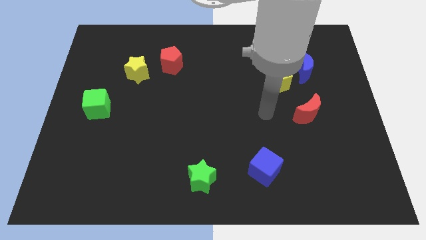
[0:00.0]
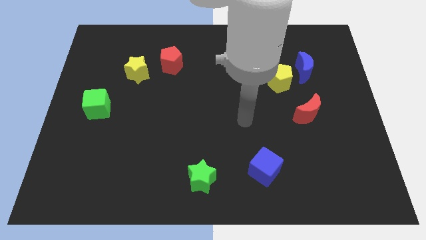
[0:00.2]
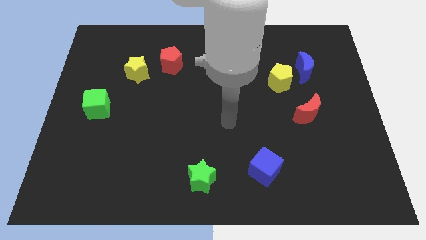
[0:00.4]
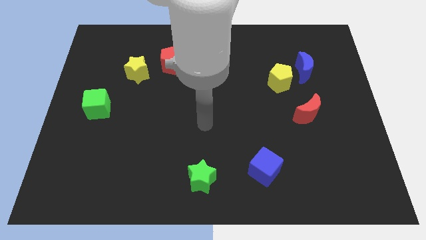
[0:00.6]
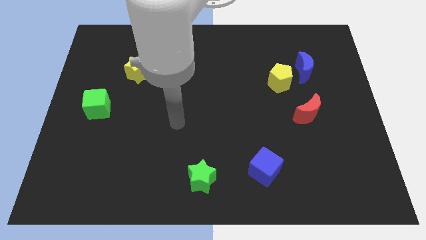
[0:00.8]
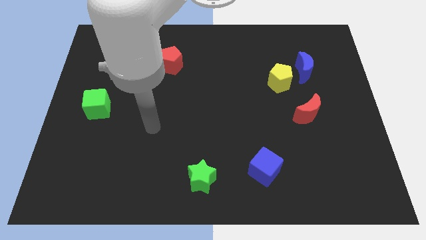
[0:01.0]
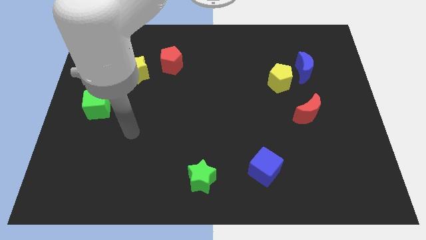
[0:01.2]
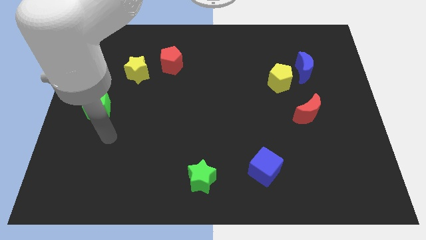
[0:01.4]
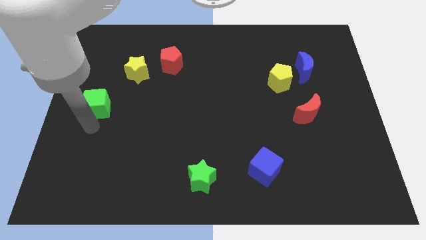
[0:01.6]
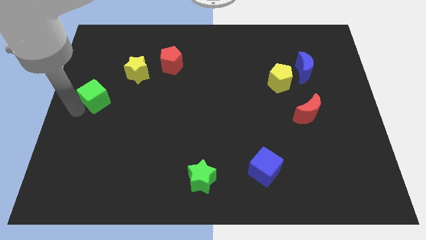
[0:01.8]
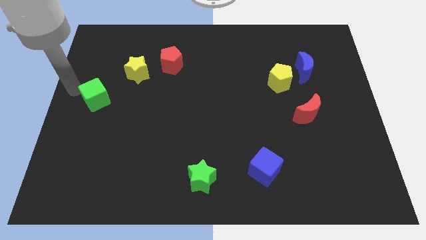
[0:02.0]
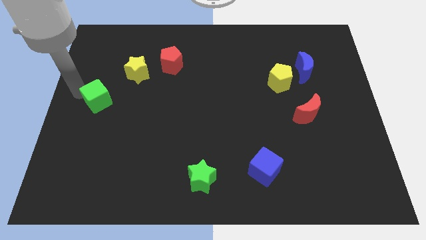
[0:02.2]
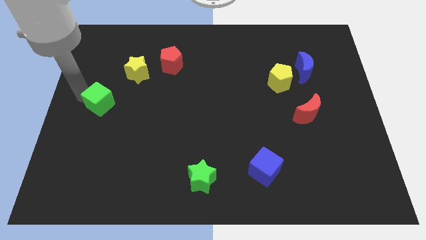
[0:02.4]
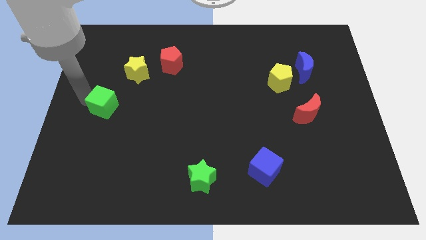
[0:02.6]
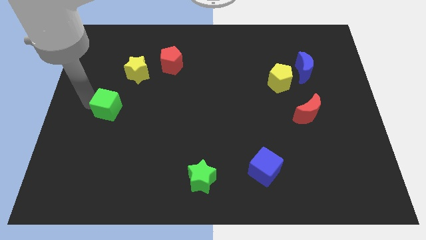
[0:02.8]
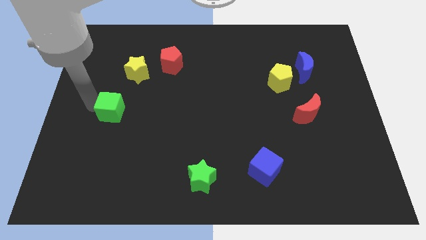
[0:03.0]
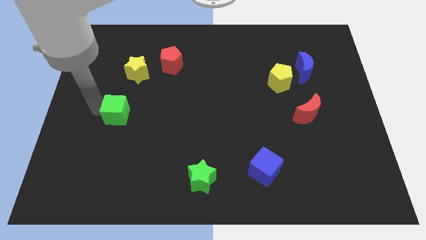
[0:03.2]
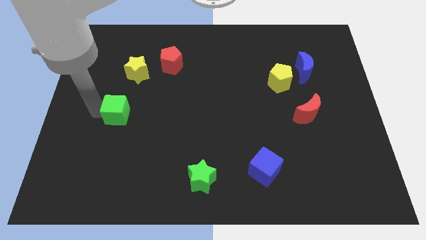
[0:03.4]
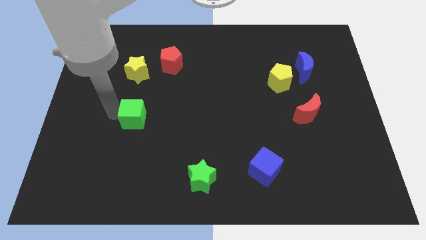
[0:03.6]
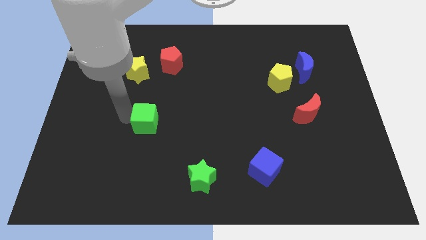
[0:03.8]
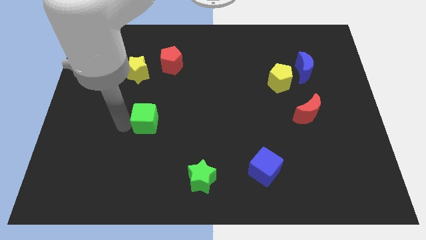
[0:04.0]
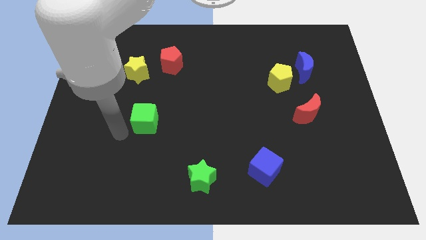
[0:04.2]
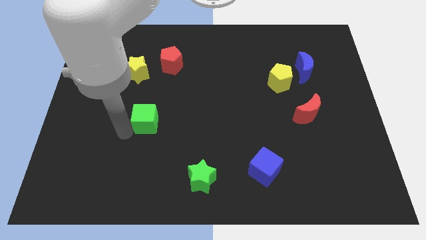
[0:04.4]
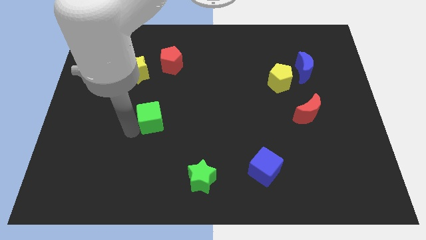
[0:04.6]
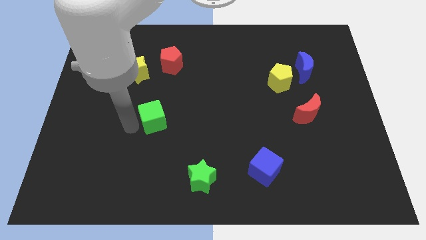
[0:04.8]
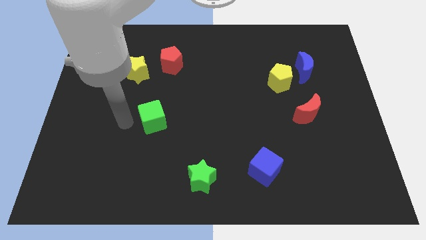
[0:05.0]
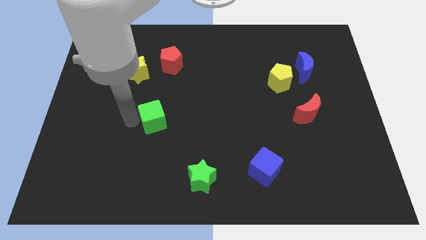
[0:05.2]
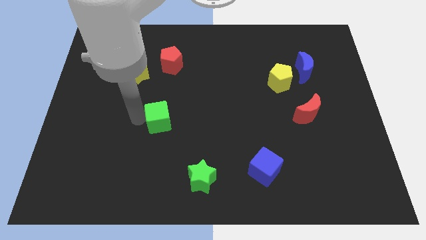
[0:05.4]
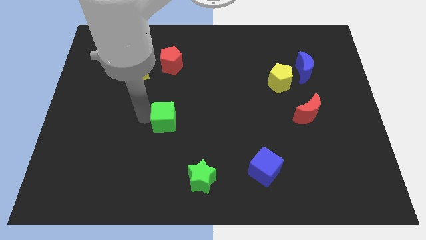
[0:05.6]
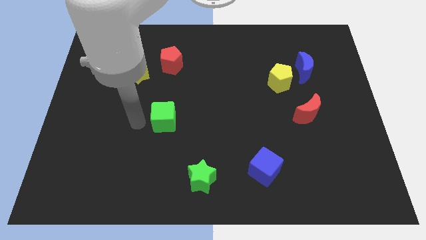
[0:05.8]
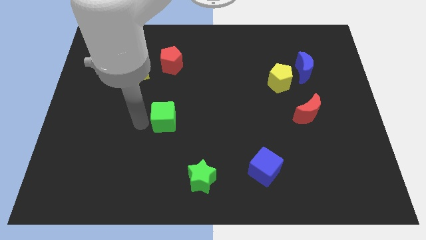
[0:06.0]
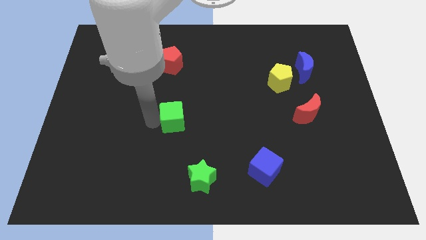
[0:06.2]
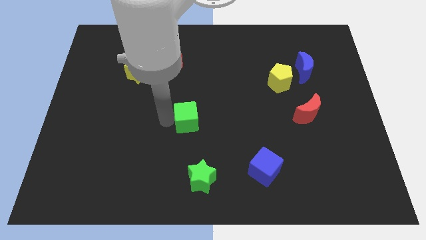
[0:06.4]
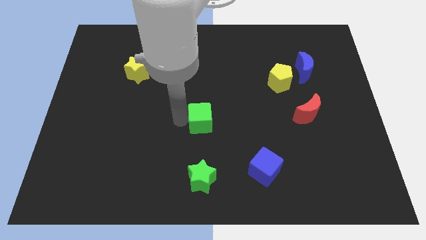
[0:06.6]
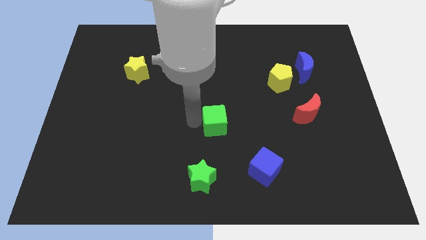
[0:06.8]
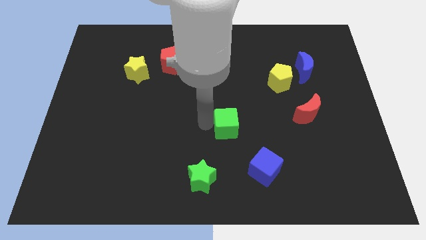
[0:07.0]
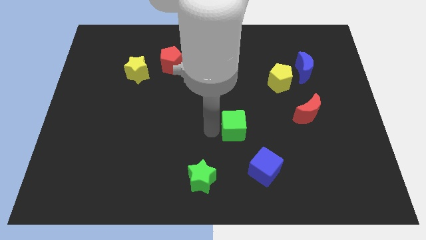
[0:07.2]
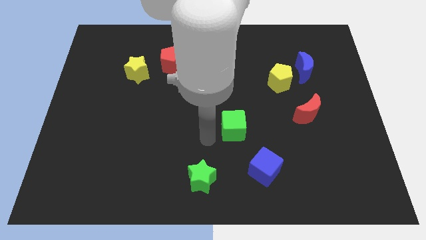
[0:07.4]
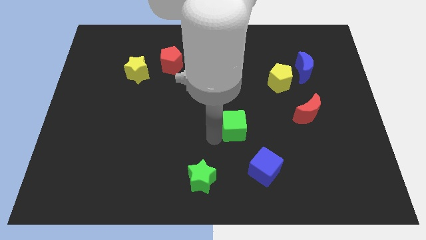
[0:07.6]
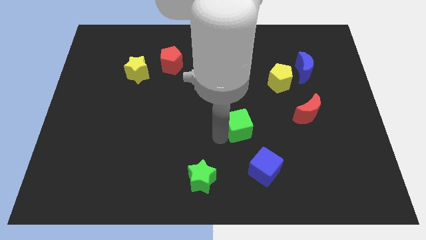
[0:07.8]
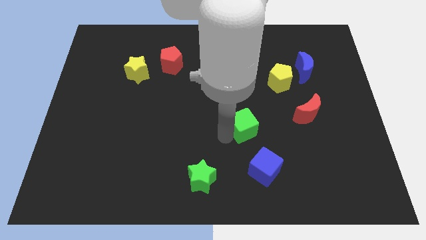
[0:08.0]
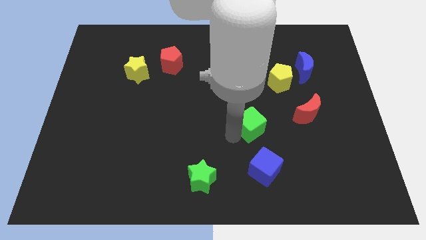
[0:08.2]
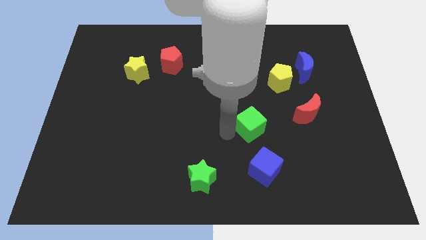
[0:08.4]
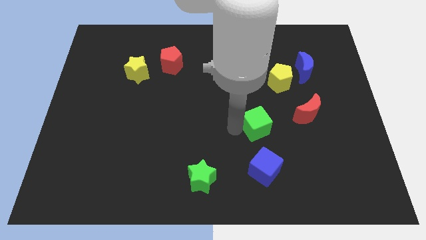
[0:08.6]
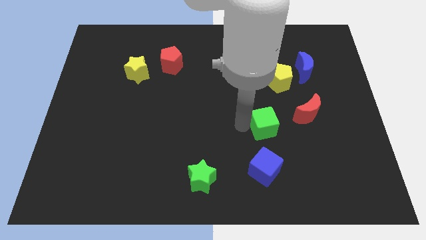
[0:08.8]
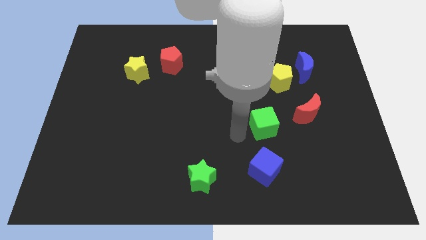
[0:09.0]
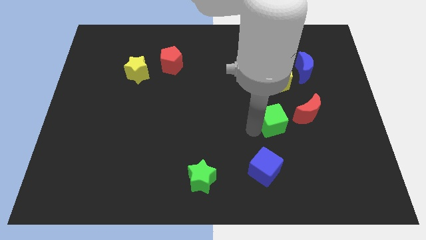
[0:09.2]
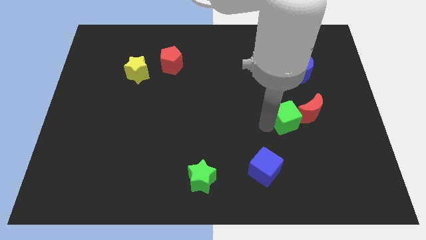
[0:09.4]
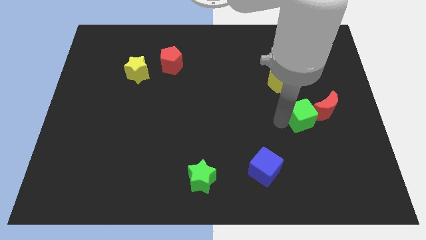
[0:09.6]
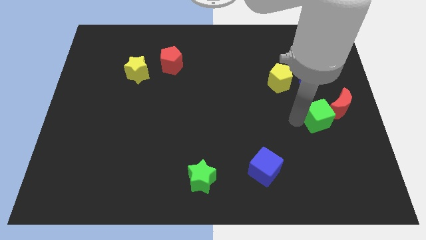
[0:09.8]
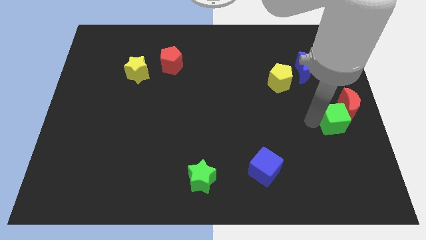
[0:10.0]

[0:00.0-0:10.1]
push the green cube next to the red moon

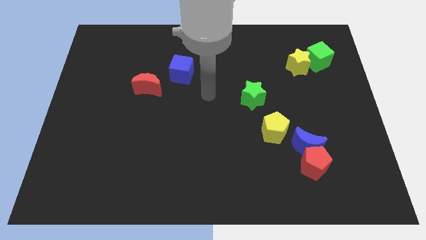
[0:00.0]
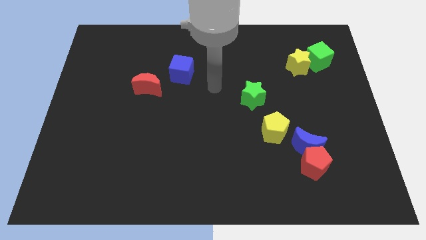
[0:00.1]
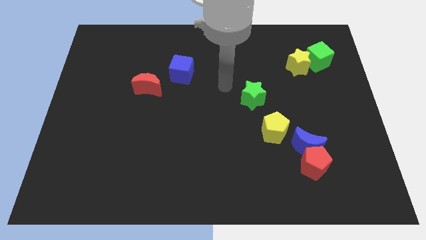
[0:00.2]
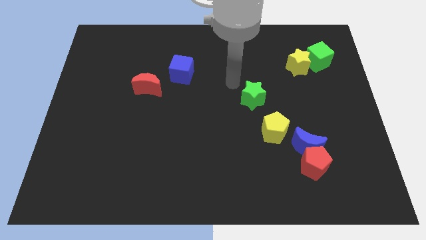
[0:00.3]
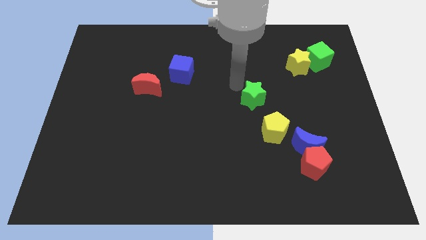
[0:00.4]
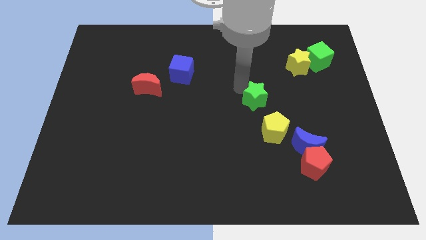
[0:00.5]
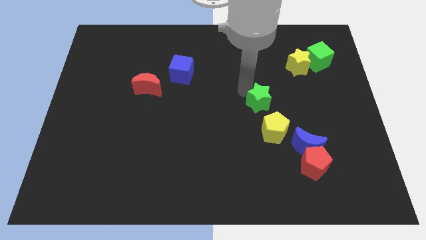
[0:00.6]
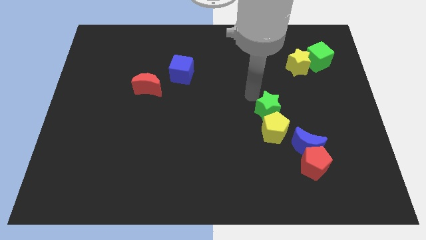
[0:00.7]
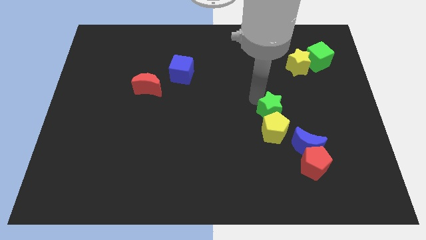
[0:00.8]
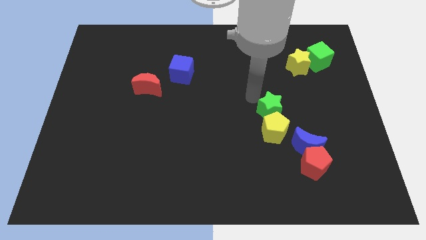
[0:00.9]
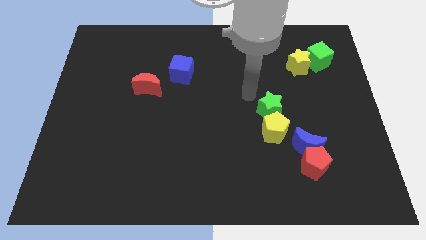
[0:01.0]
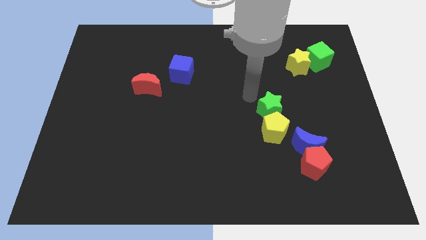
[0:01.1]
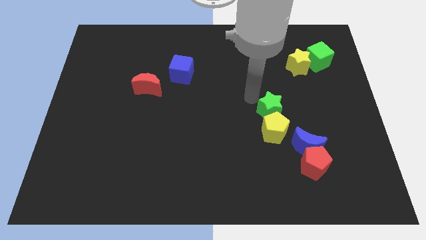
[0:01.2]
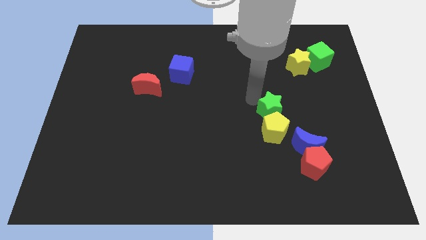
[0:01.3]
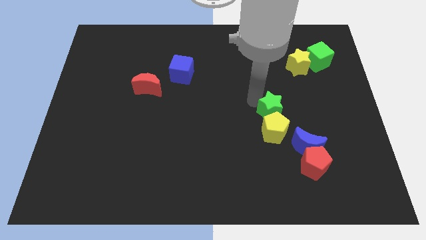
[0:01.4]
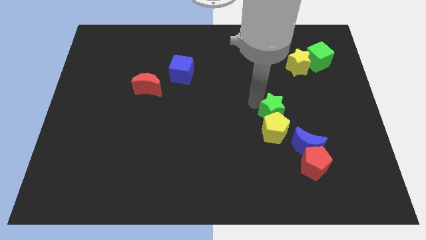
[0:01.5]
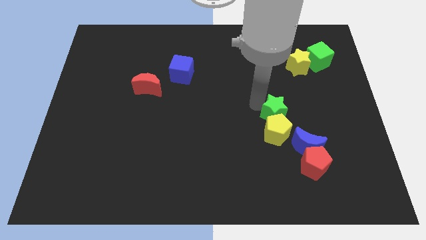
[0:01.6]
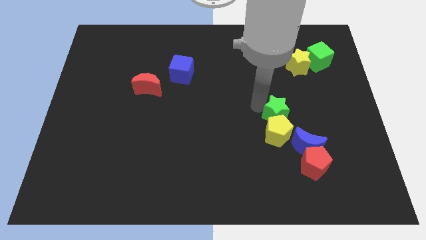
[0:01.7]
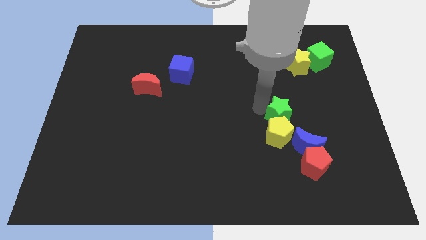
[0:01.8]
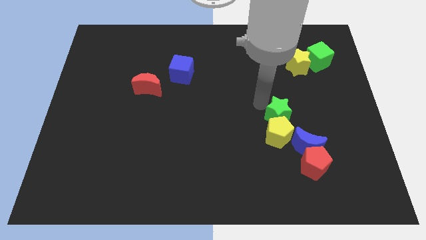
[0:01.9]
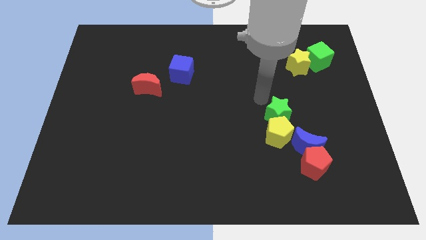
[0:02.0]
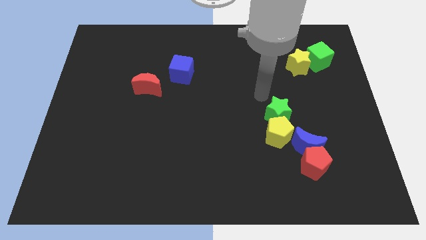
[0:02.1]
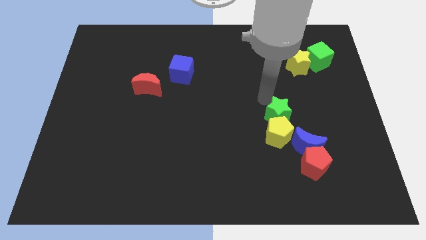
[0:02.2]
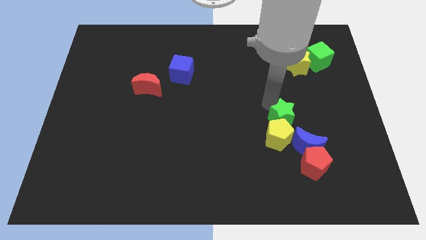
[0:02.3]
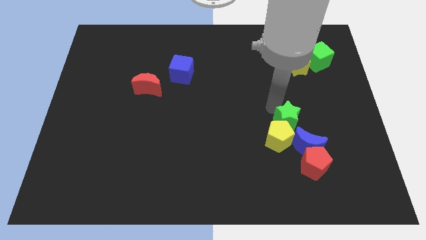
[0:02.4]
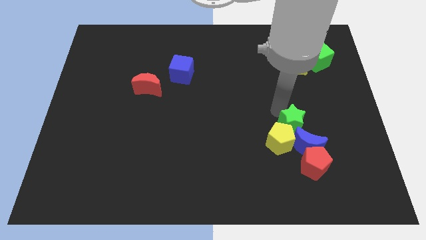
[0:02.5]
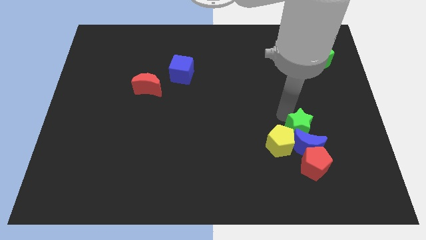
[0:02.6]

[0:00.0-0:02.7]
push the green star close to the blue moon
